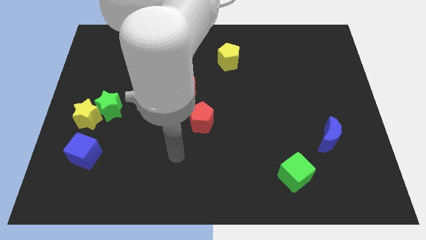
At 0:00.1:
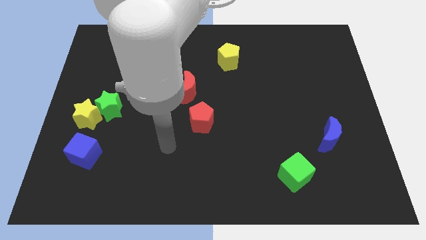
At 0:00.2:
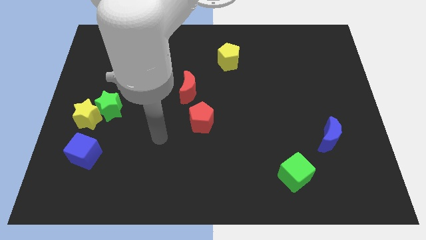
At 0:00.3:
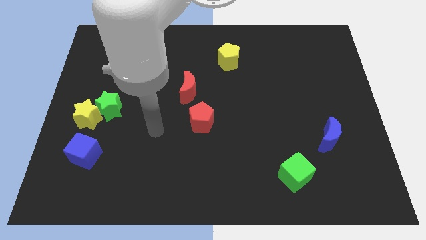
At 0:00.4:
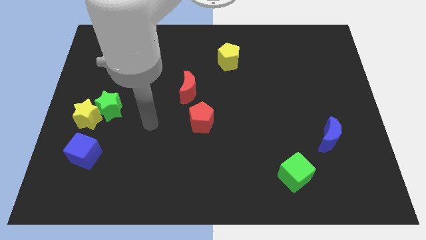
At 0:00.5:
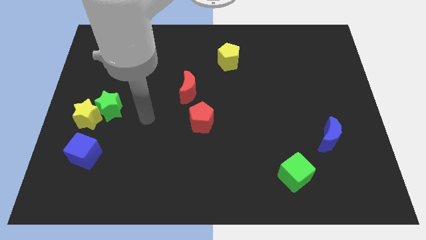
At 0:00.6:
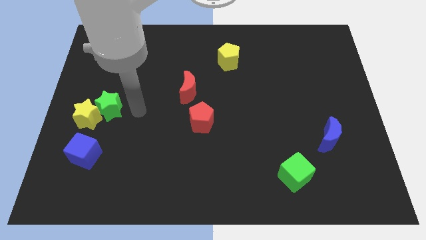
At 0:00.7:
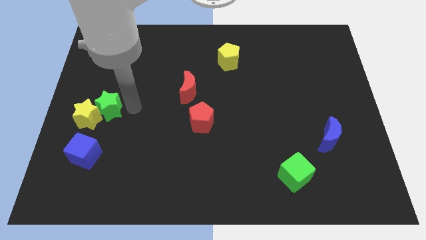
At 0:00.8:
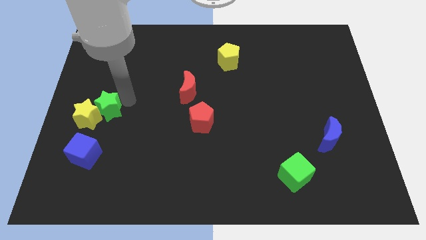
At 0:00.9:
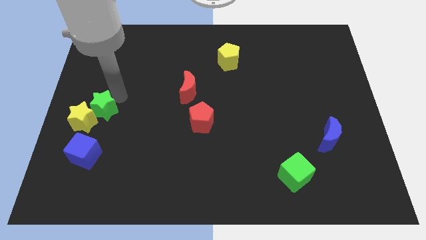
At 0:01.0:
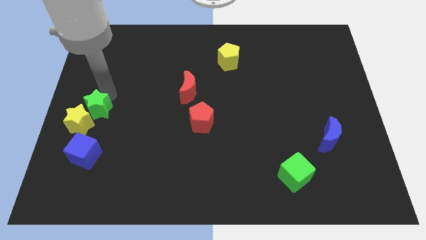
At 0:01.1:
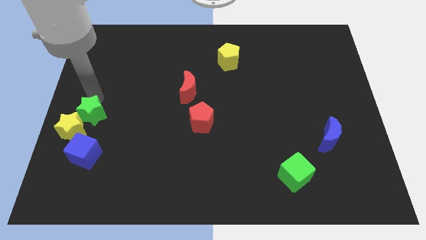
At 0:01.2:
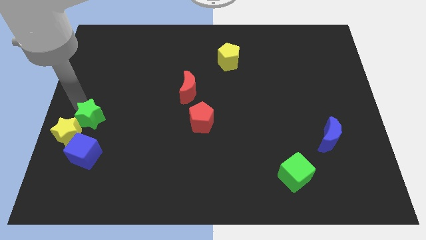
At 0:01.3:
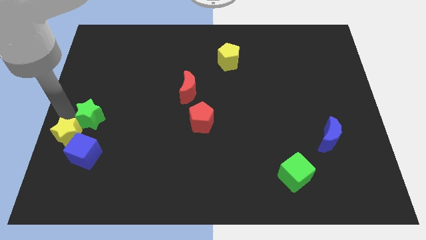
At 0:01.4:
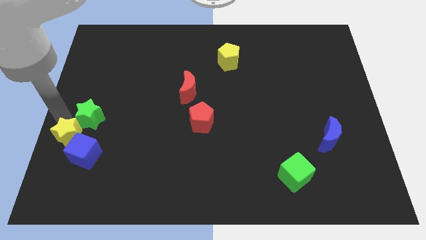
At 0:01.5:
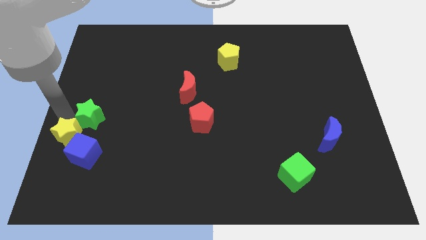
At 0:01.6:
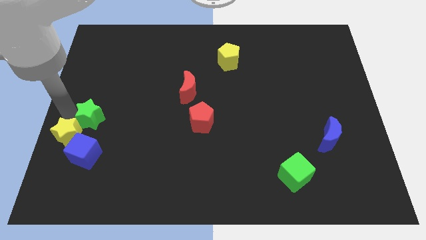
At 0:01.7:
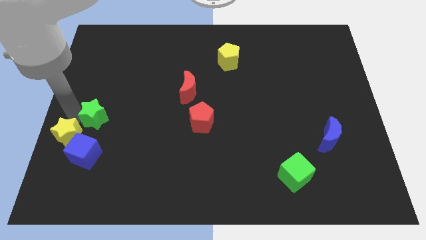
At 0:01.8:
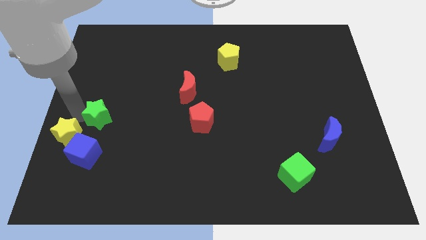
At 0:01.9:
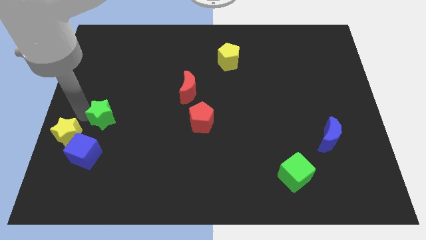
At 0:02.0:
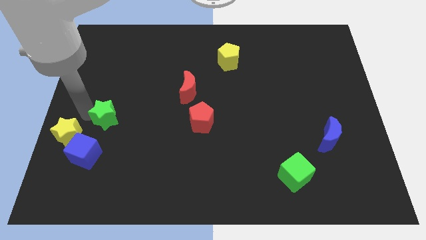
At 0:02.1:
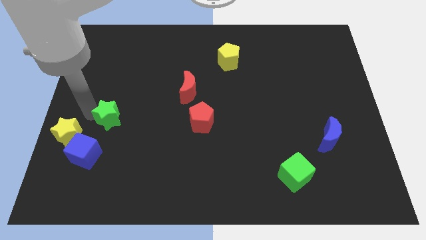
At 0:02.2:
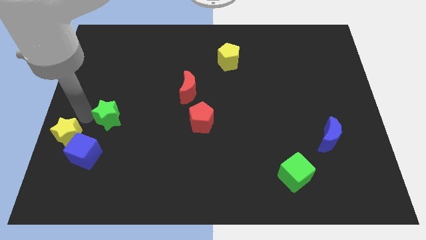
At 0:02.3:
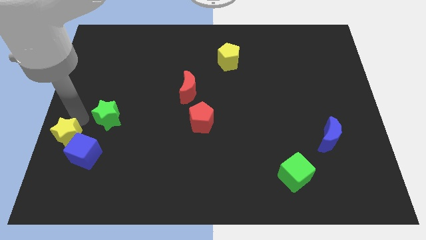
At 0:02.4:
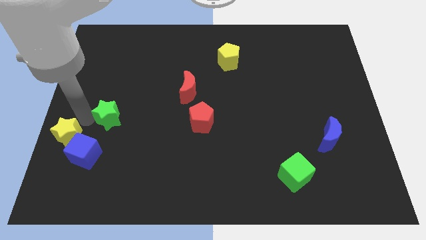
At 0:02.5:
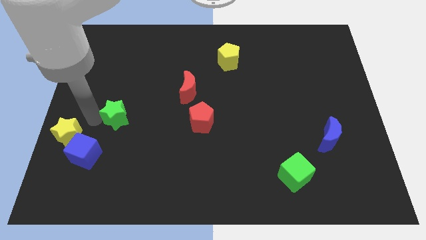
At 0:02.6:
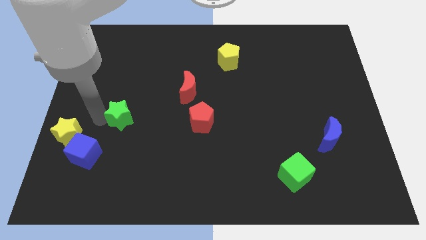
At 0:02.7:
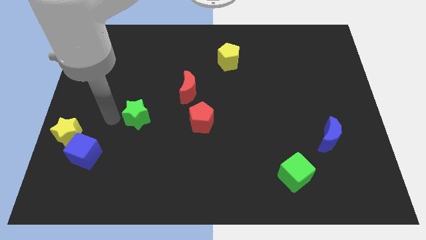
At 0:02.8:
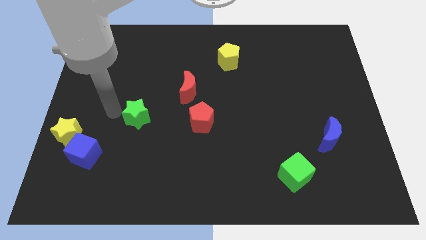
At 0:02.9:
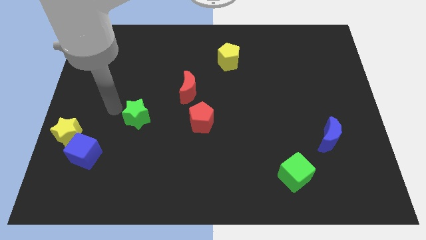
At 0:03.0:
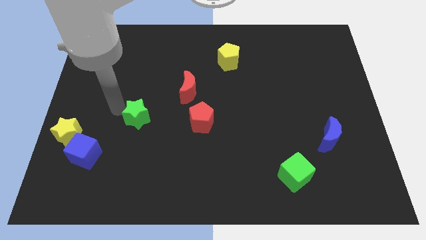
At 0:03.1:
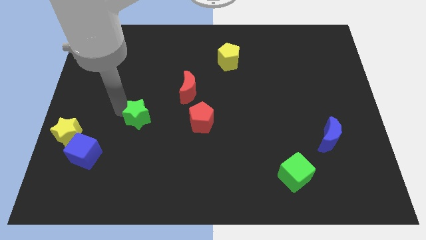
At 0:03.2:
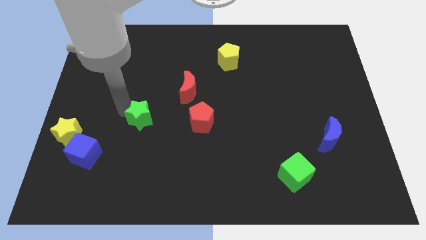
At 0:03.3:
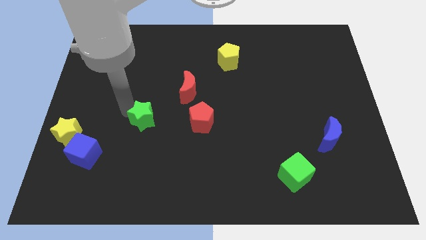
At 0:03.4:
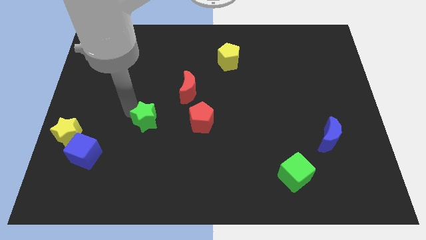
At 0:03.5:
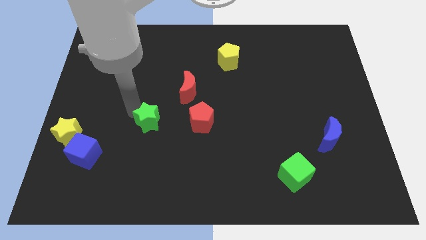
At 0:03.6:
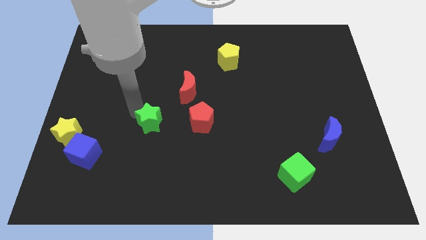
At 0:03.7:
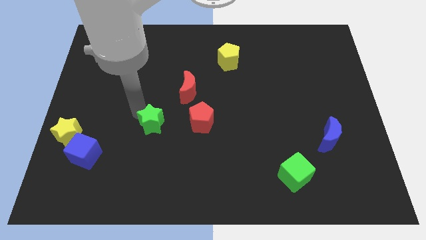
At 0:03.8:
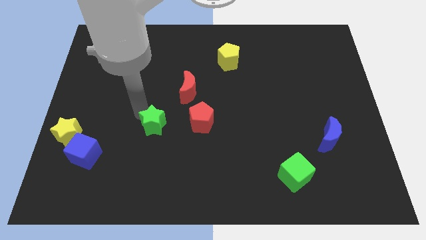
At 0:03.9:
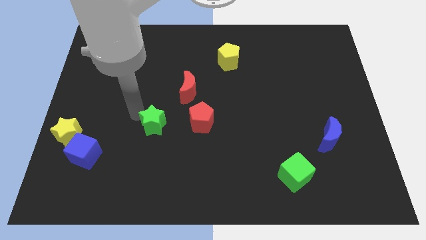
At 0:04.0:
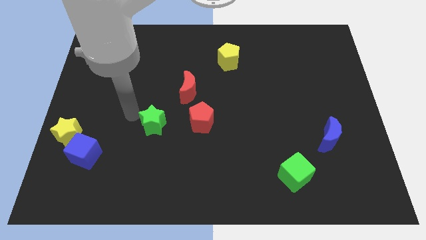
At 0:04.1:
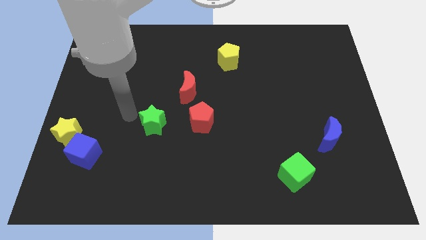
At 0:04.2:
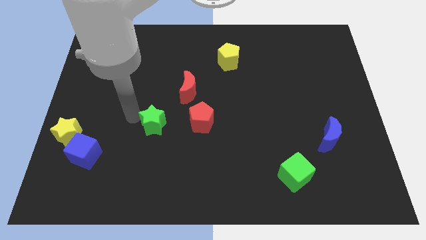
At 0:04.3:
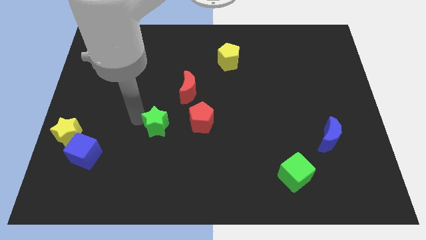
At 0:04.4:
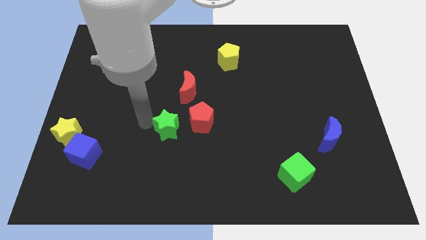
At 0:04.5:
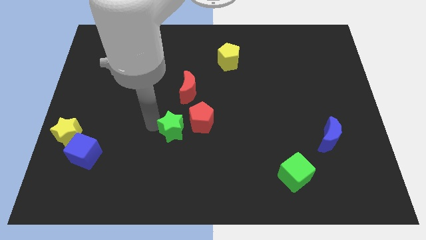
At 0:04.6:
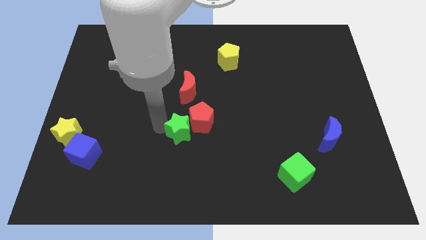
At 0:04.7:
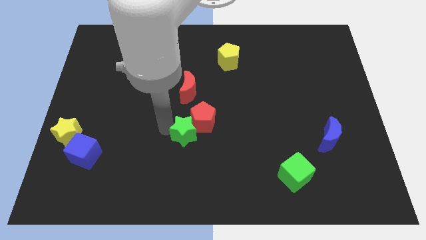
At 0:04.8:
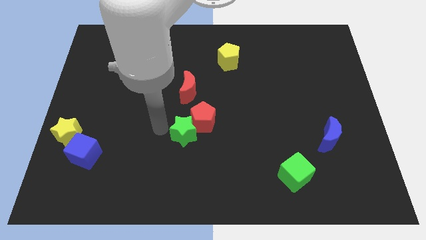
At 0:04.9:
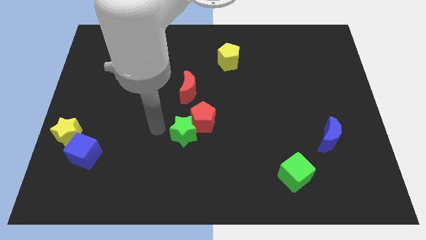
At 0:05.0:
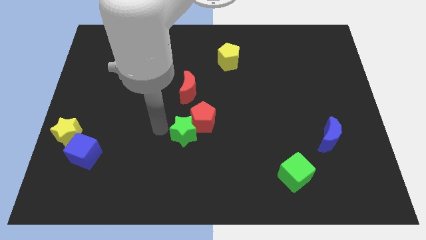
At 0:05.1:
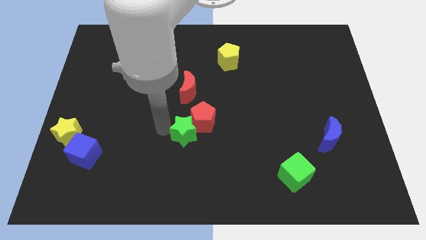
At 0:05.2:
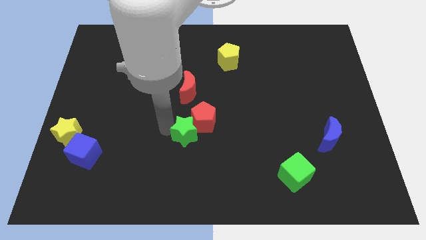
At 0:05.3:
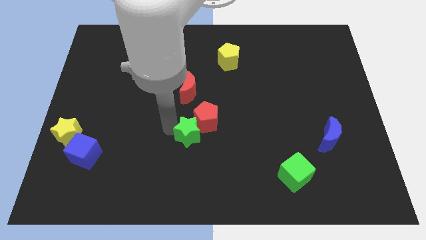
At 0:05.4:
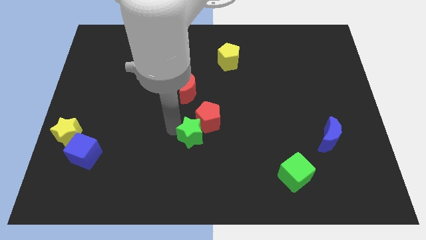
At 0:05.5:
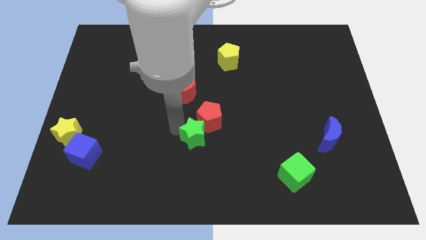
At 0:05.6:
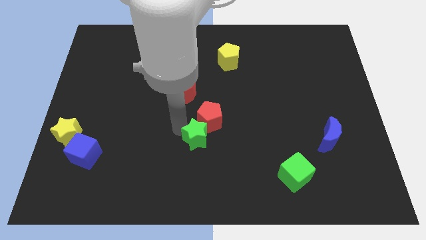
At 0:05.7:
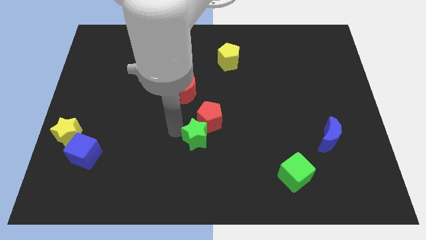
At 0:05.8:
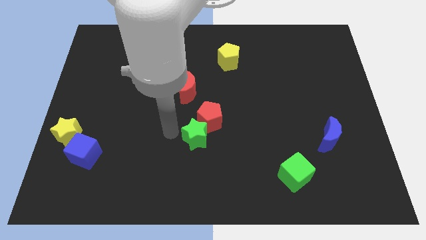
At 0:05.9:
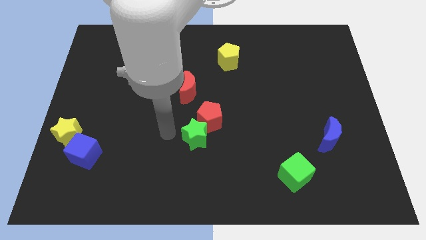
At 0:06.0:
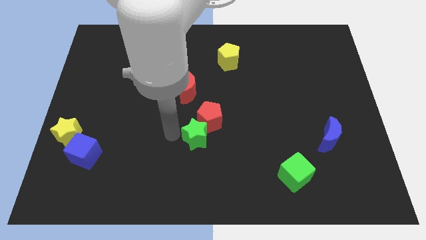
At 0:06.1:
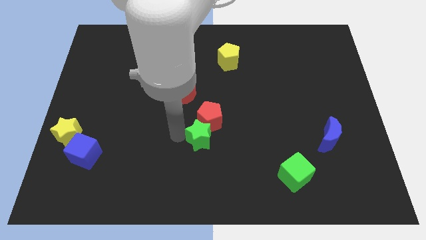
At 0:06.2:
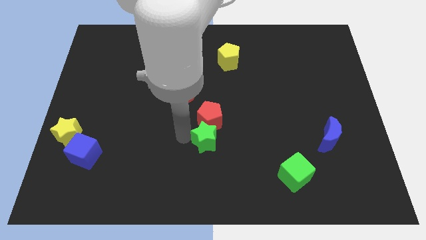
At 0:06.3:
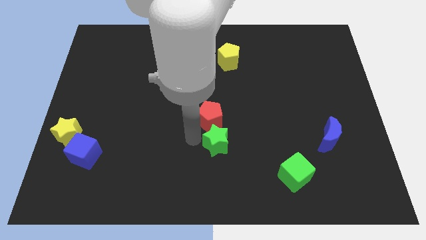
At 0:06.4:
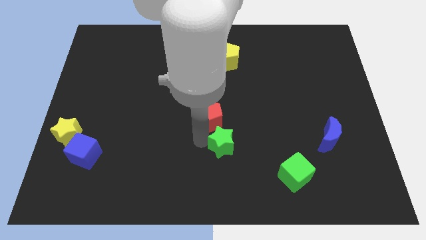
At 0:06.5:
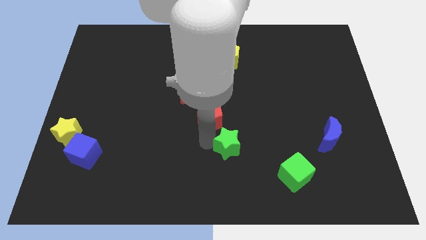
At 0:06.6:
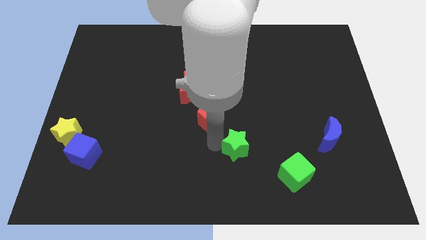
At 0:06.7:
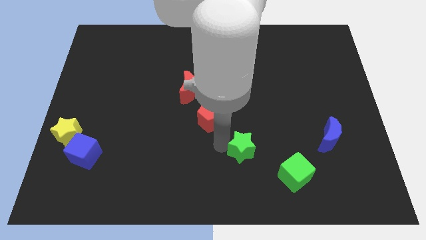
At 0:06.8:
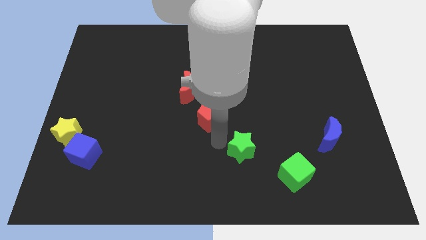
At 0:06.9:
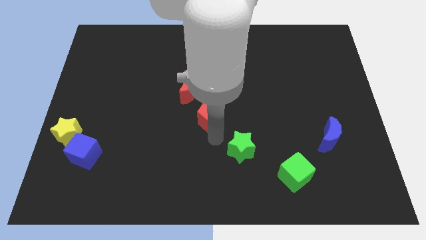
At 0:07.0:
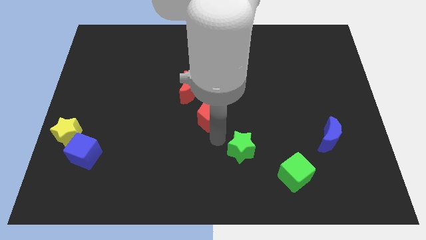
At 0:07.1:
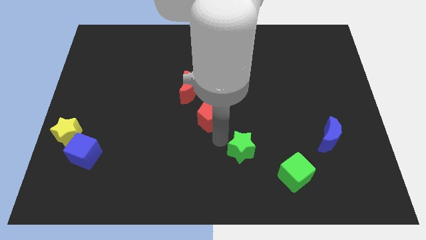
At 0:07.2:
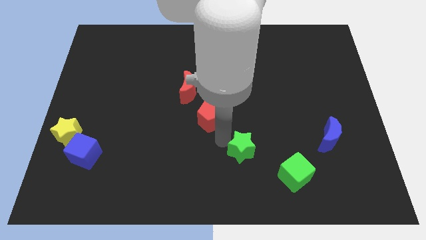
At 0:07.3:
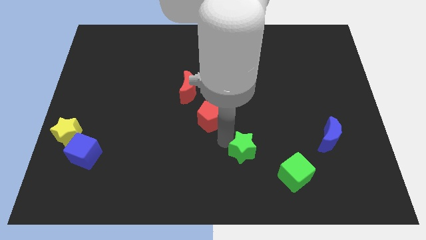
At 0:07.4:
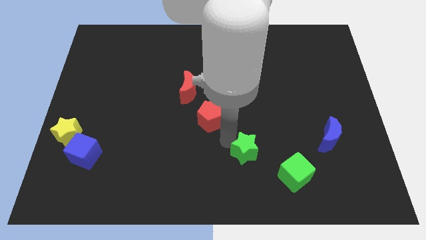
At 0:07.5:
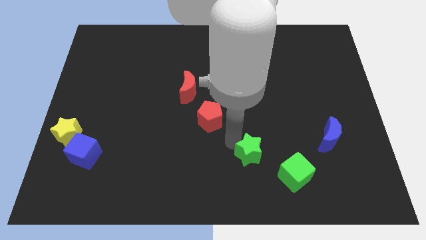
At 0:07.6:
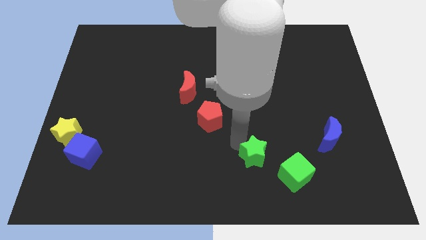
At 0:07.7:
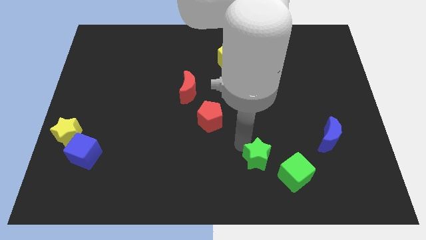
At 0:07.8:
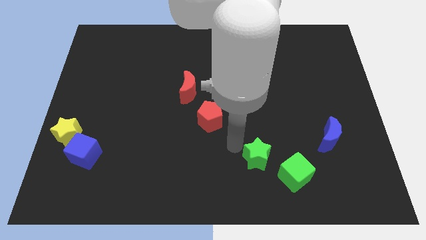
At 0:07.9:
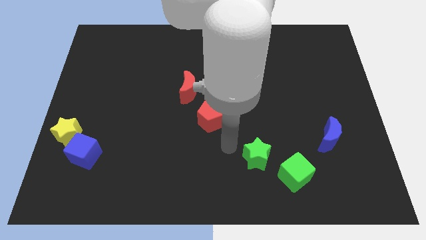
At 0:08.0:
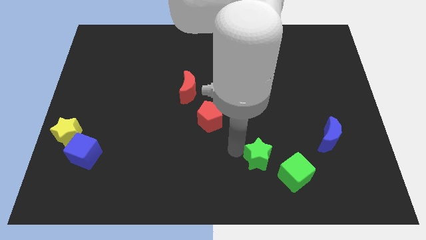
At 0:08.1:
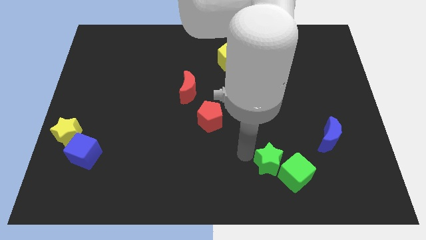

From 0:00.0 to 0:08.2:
move the green star to the green cube
